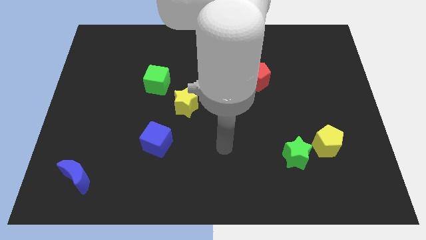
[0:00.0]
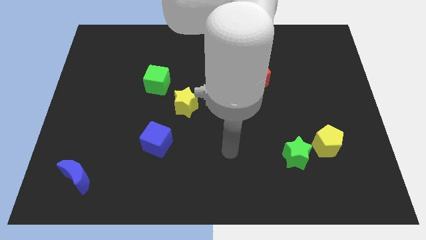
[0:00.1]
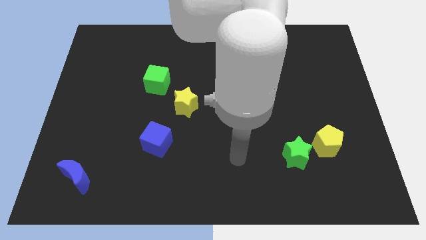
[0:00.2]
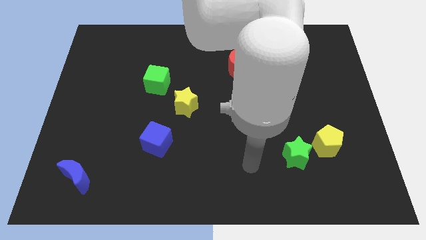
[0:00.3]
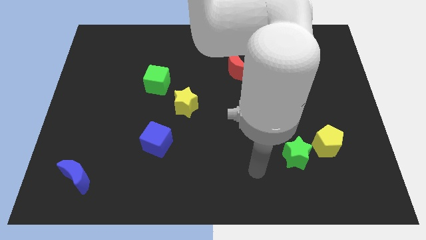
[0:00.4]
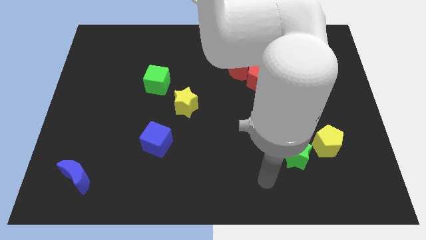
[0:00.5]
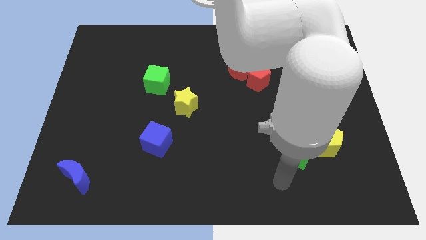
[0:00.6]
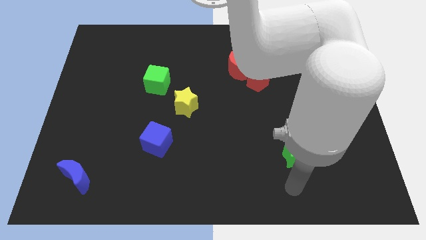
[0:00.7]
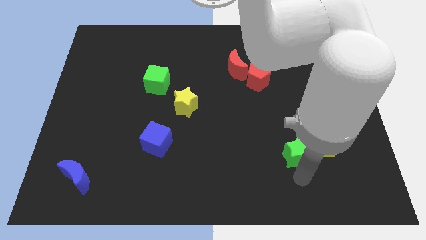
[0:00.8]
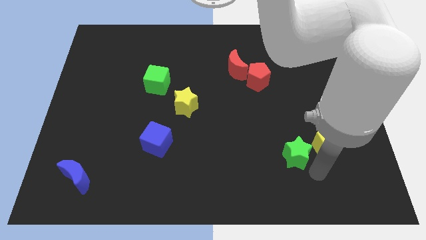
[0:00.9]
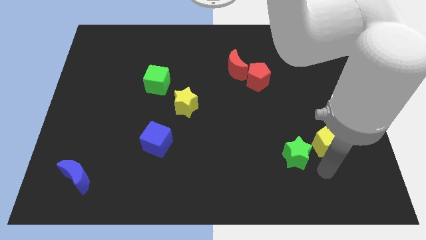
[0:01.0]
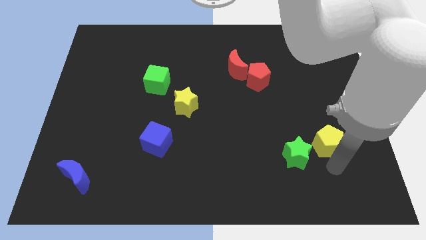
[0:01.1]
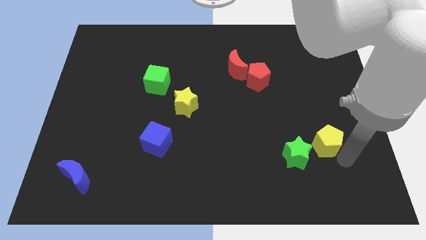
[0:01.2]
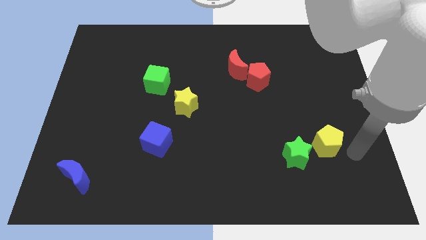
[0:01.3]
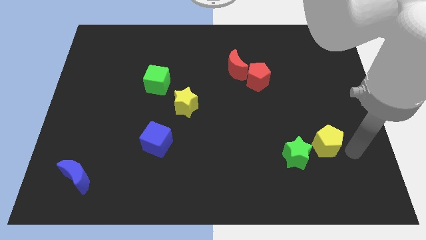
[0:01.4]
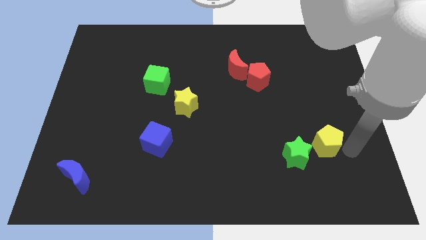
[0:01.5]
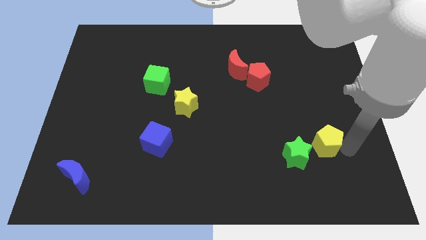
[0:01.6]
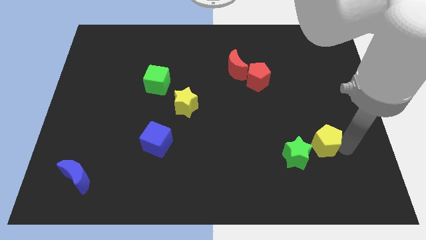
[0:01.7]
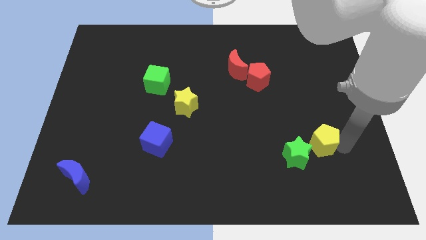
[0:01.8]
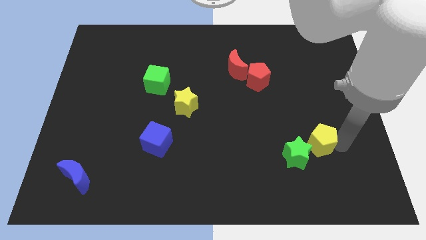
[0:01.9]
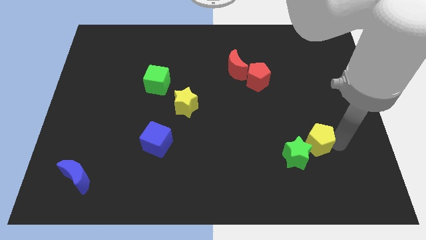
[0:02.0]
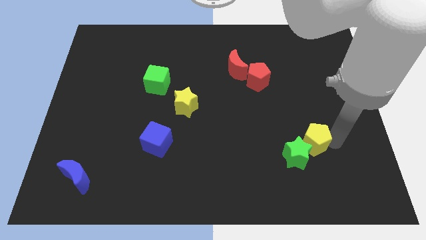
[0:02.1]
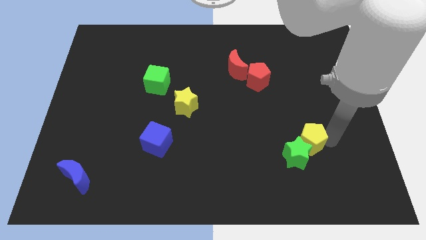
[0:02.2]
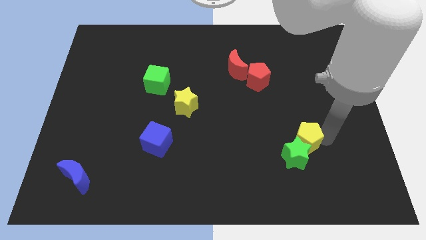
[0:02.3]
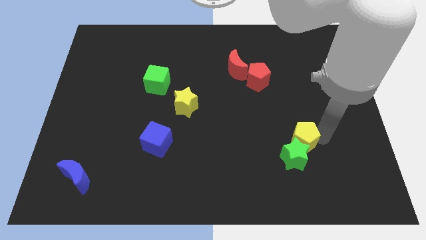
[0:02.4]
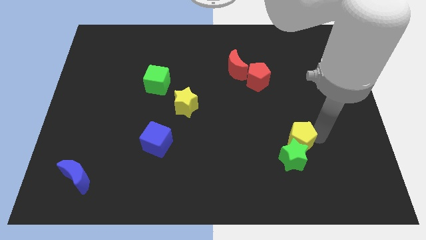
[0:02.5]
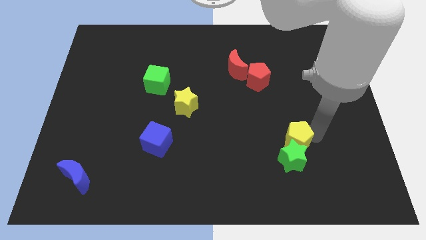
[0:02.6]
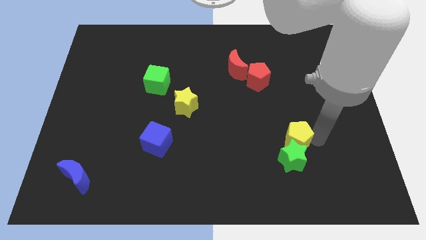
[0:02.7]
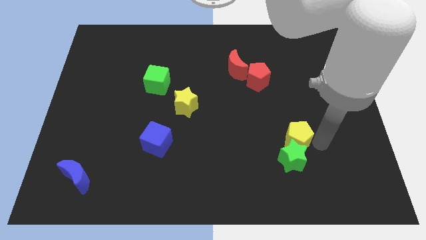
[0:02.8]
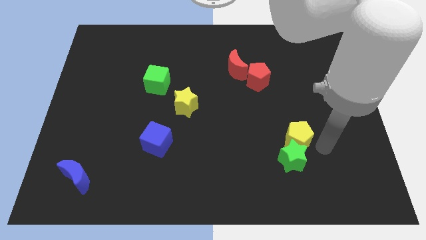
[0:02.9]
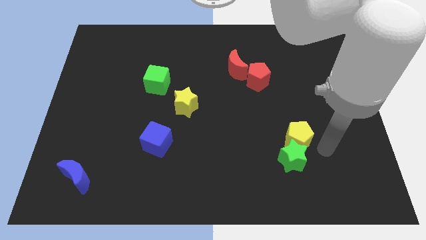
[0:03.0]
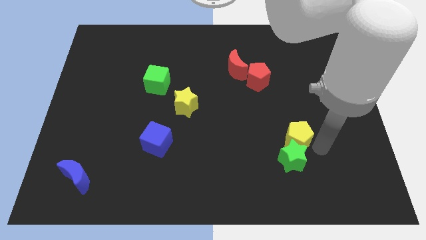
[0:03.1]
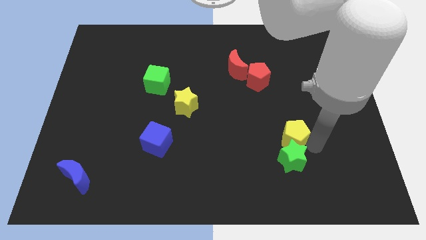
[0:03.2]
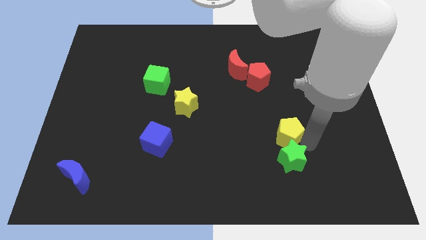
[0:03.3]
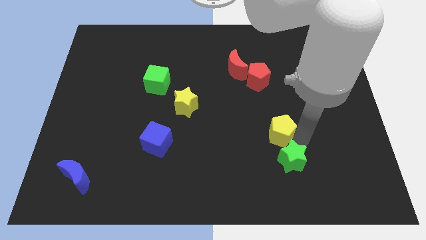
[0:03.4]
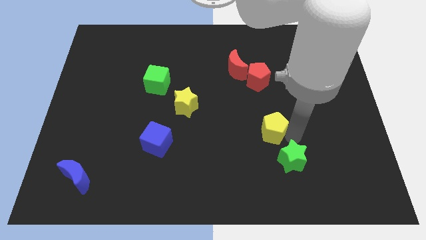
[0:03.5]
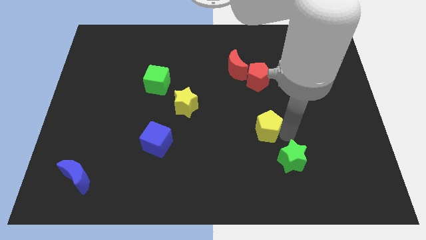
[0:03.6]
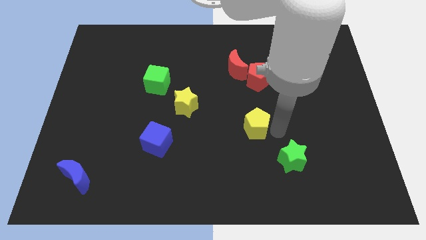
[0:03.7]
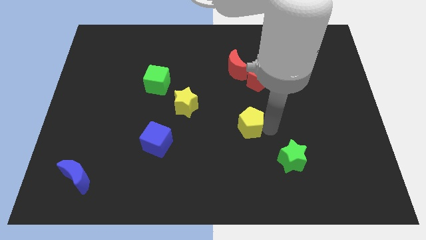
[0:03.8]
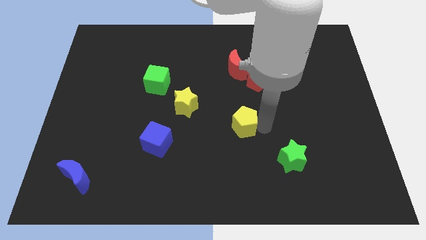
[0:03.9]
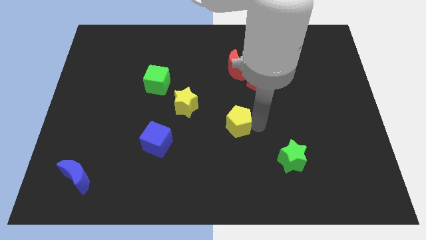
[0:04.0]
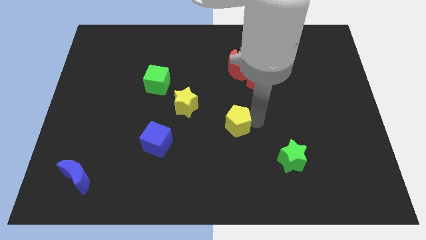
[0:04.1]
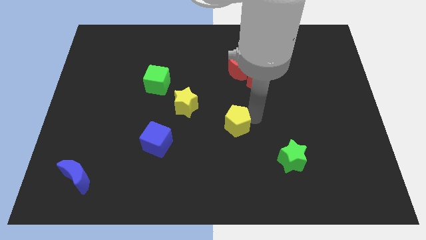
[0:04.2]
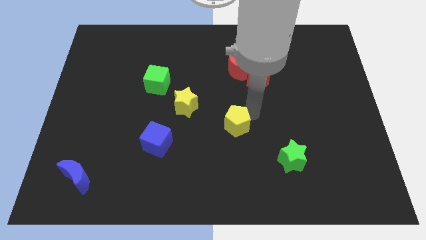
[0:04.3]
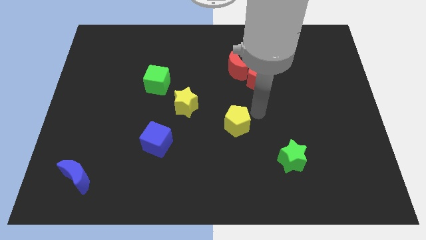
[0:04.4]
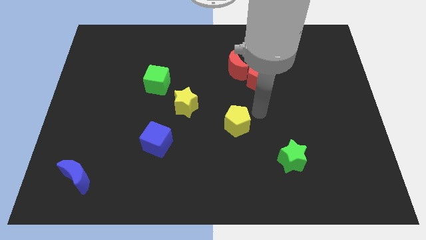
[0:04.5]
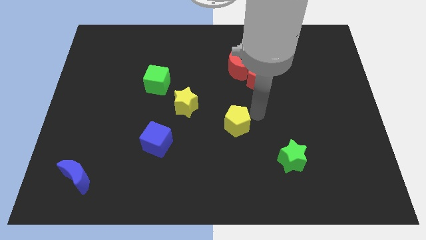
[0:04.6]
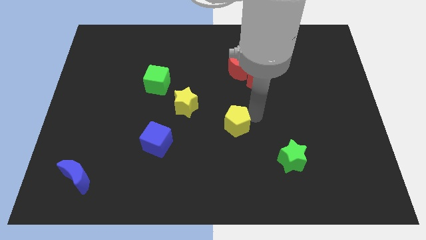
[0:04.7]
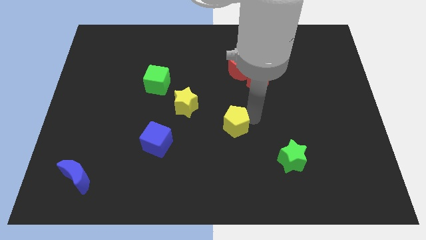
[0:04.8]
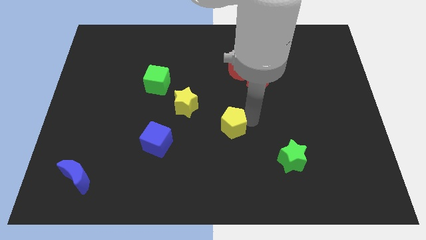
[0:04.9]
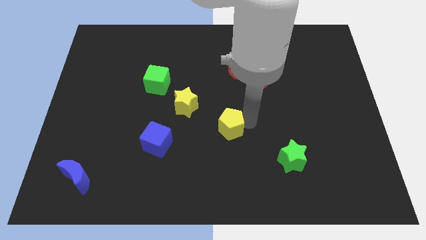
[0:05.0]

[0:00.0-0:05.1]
slide the yellow pentagon left

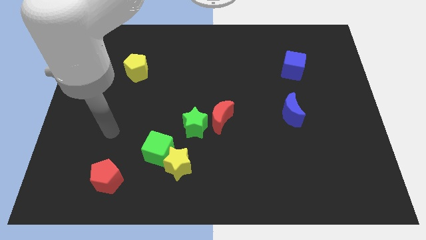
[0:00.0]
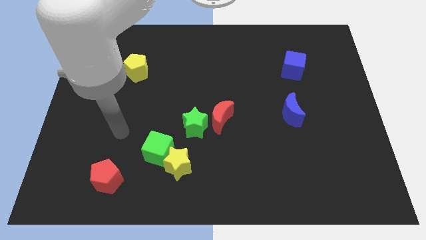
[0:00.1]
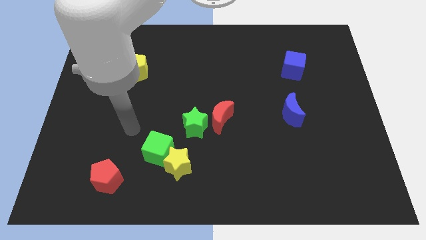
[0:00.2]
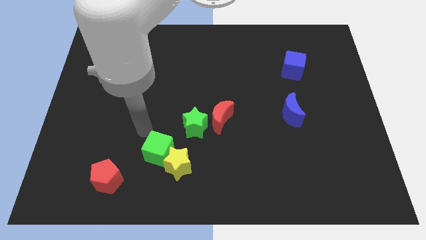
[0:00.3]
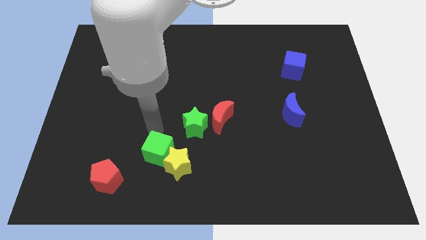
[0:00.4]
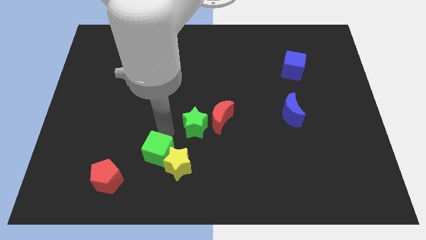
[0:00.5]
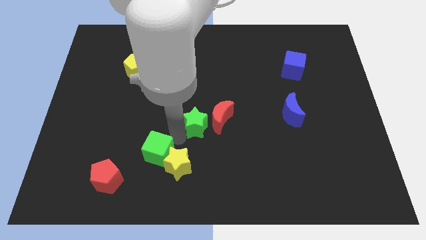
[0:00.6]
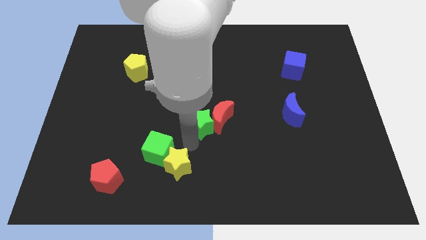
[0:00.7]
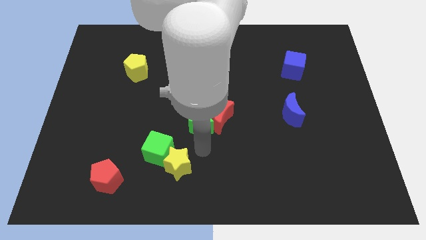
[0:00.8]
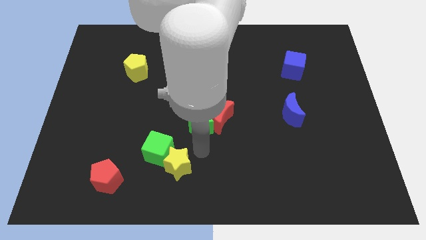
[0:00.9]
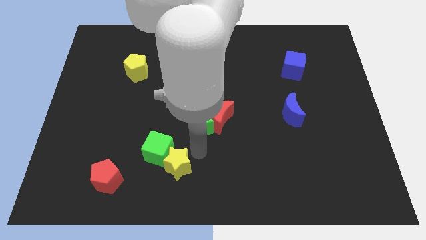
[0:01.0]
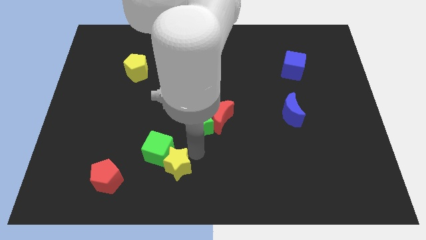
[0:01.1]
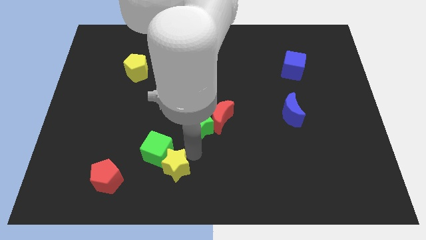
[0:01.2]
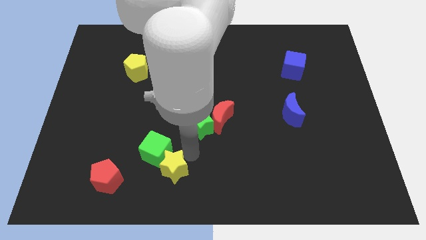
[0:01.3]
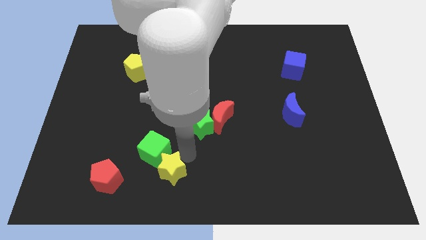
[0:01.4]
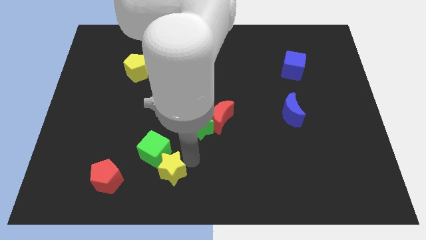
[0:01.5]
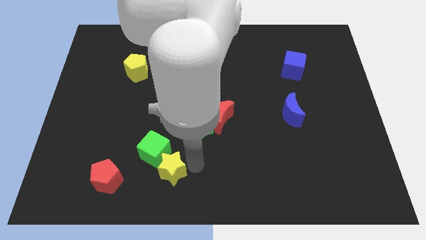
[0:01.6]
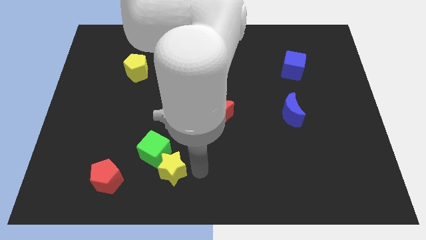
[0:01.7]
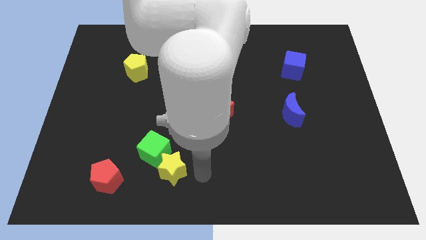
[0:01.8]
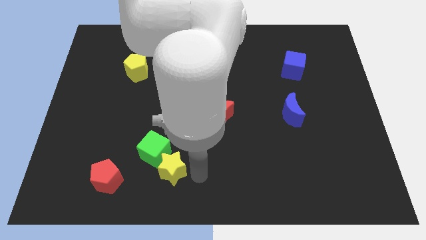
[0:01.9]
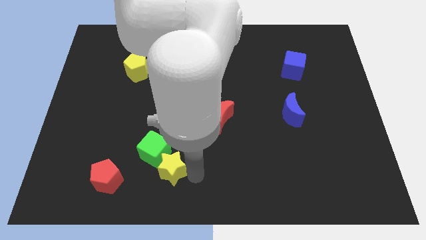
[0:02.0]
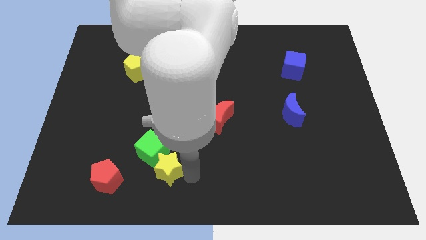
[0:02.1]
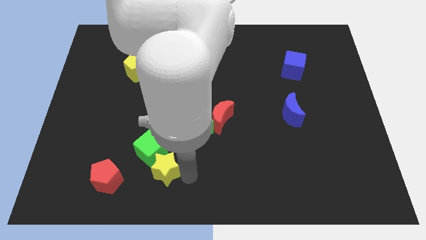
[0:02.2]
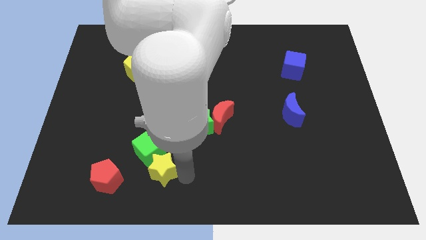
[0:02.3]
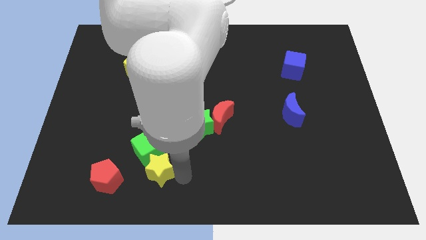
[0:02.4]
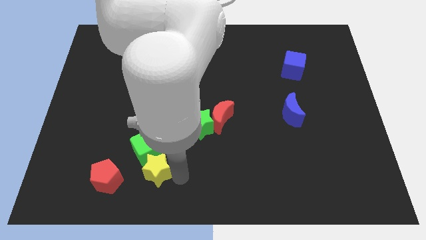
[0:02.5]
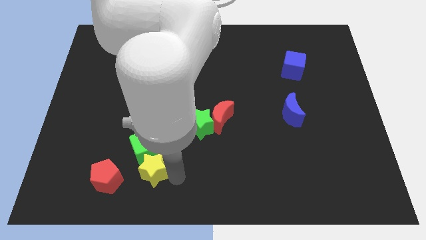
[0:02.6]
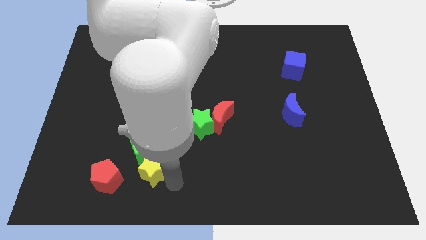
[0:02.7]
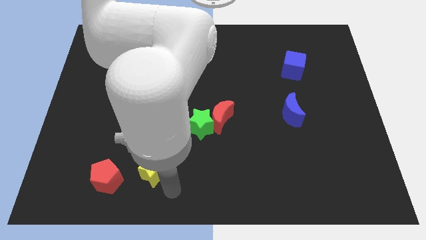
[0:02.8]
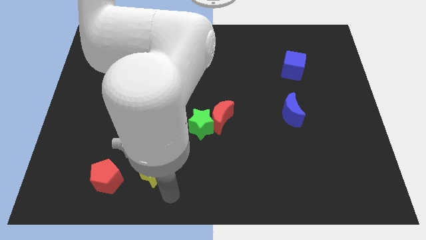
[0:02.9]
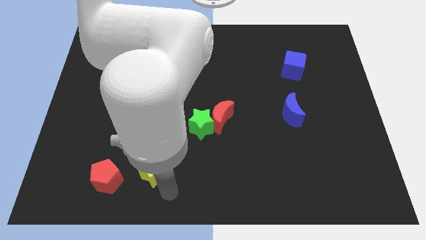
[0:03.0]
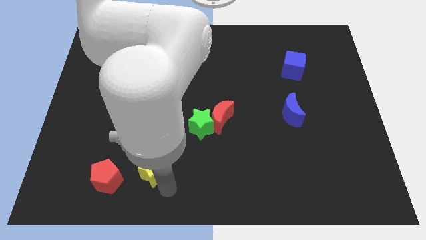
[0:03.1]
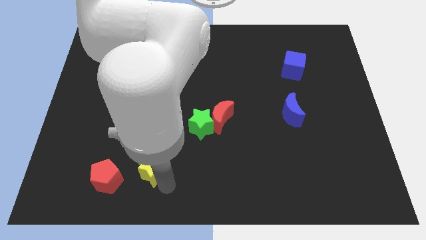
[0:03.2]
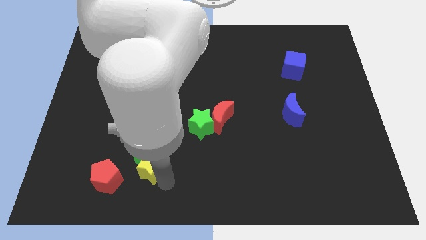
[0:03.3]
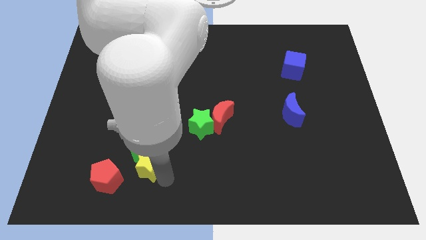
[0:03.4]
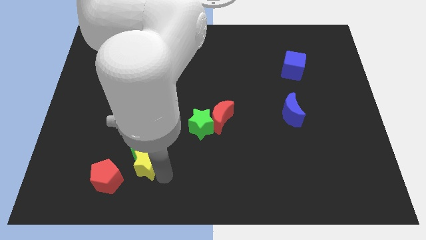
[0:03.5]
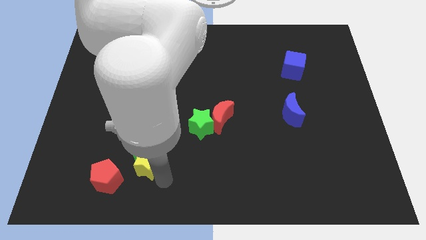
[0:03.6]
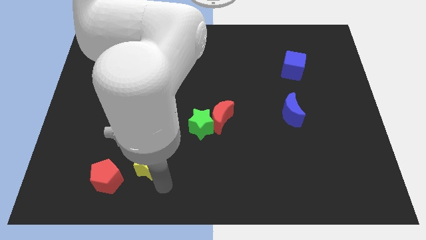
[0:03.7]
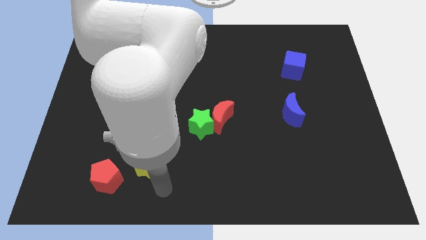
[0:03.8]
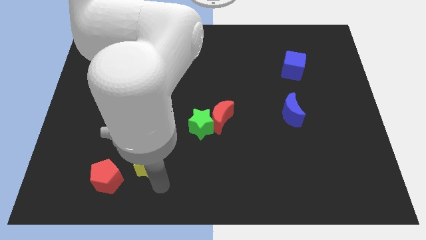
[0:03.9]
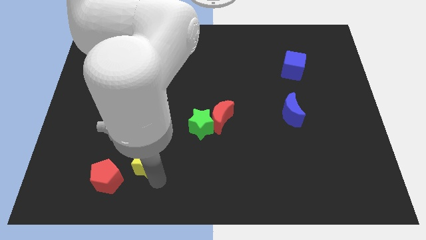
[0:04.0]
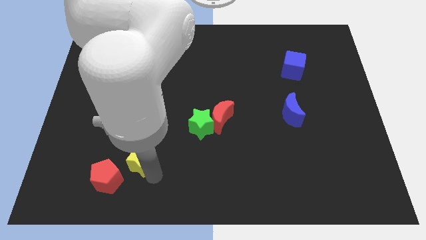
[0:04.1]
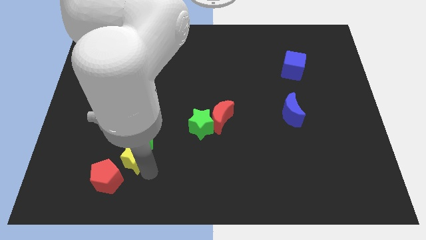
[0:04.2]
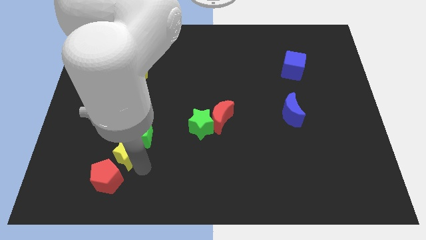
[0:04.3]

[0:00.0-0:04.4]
slightly slide the yellow star up and to the left
